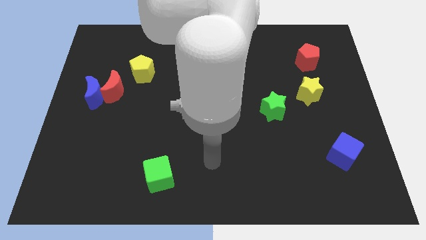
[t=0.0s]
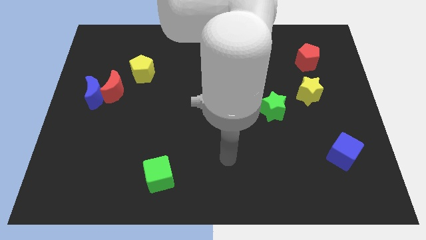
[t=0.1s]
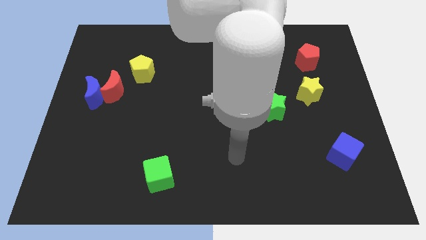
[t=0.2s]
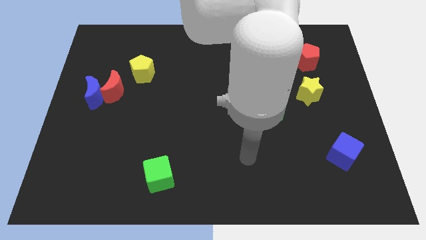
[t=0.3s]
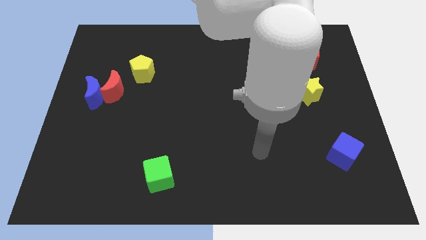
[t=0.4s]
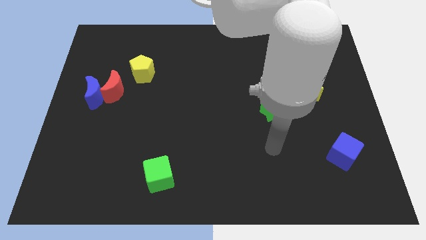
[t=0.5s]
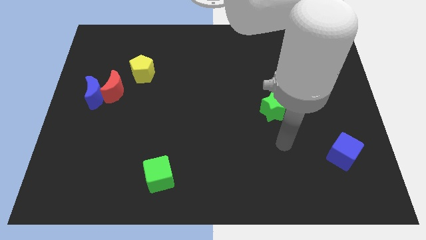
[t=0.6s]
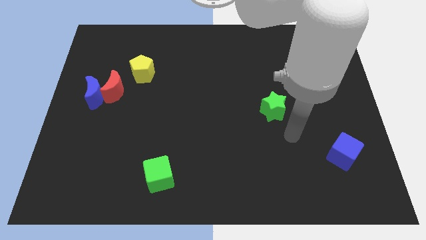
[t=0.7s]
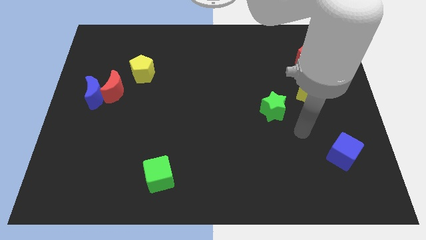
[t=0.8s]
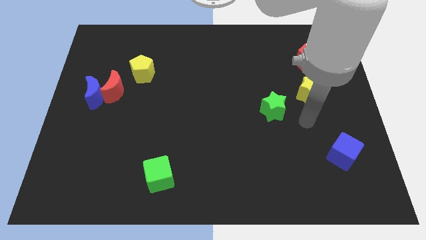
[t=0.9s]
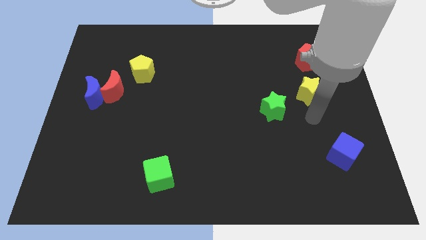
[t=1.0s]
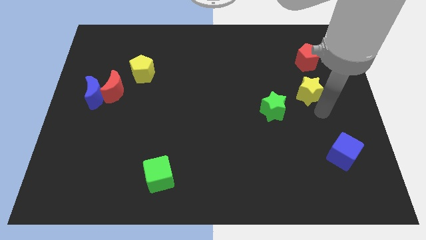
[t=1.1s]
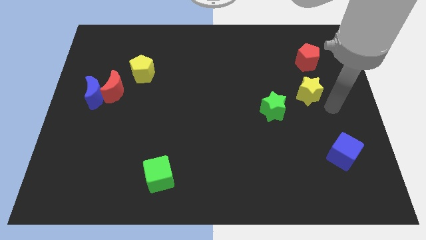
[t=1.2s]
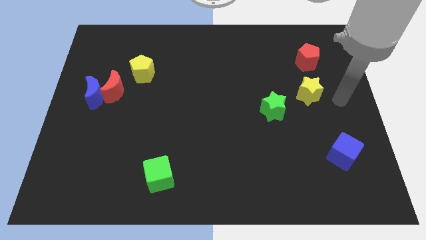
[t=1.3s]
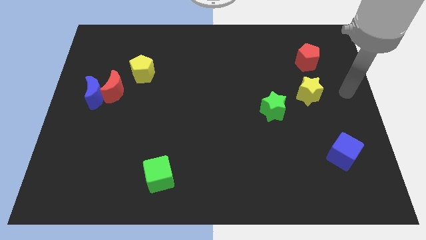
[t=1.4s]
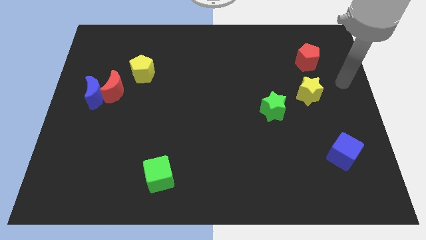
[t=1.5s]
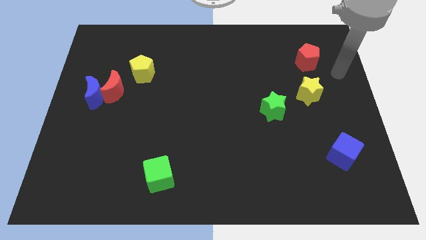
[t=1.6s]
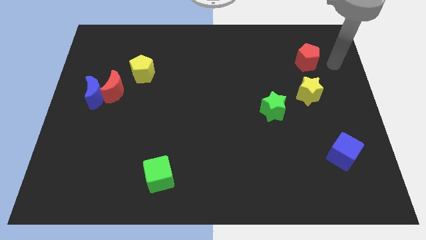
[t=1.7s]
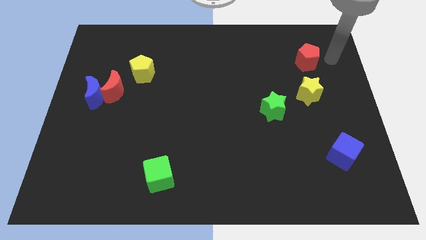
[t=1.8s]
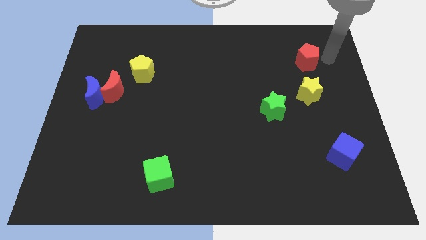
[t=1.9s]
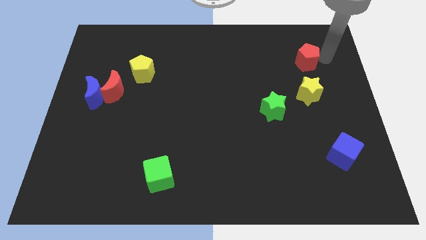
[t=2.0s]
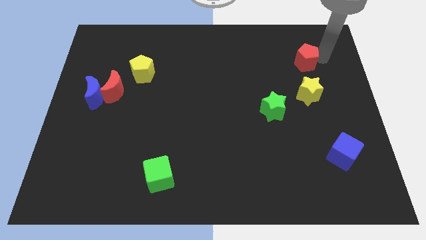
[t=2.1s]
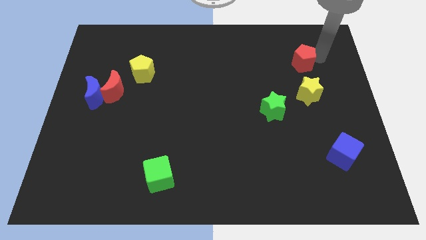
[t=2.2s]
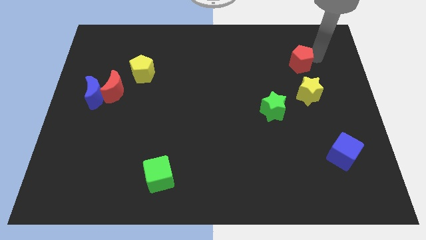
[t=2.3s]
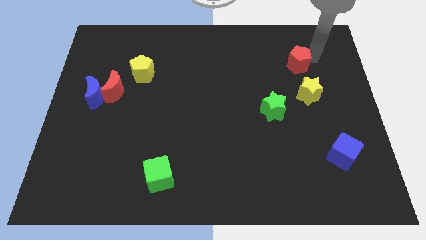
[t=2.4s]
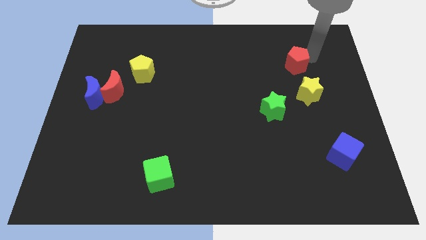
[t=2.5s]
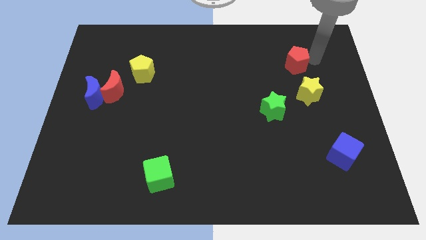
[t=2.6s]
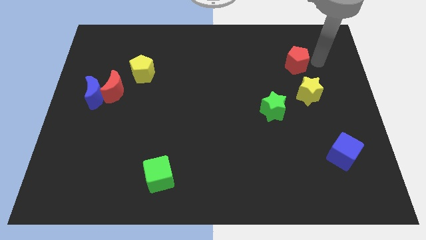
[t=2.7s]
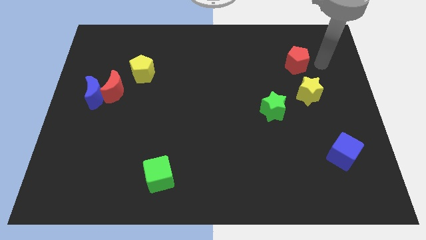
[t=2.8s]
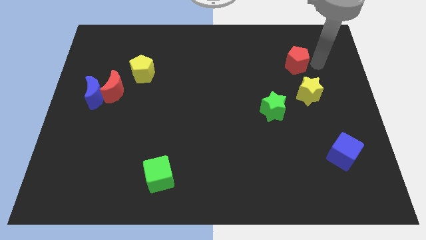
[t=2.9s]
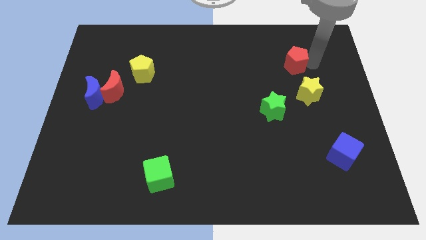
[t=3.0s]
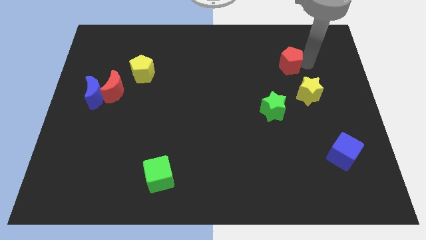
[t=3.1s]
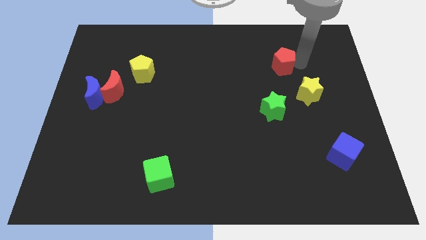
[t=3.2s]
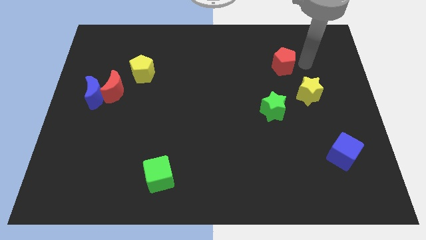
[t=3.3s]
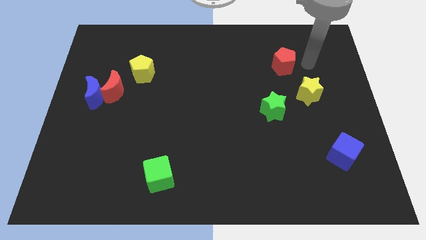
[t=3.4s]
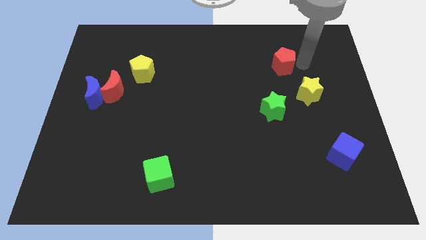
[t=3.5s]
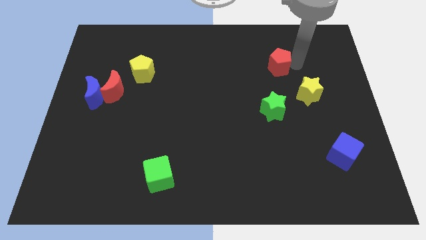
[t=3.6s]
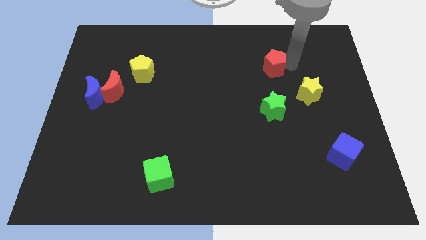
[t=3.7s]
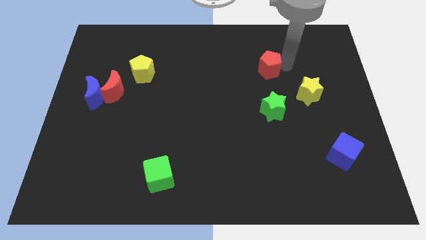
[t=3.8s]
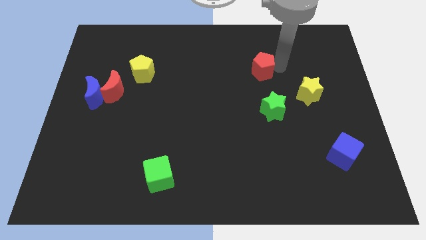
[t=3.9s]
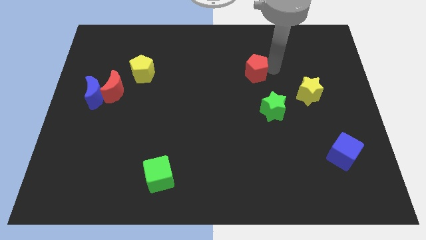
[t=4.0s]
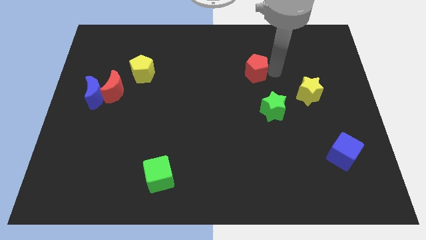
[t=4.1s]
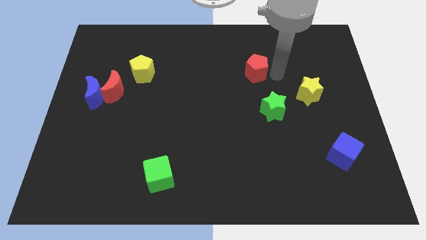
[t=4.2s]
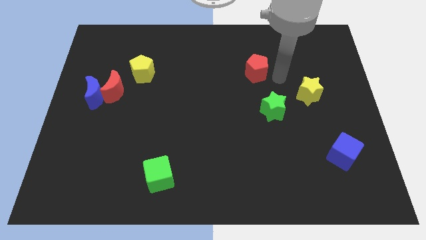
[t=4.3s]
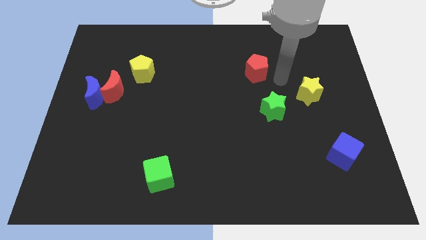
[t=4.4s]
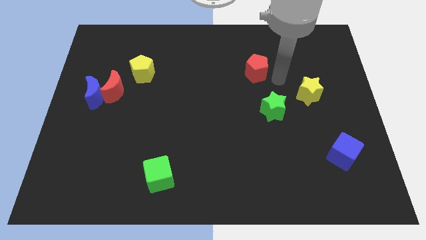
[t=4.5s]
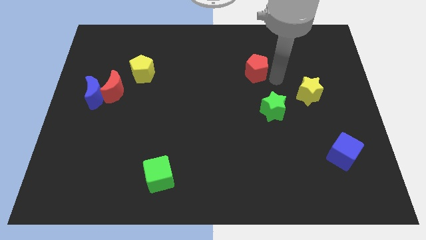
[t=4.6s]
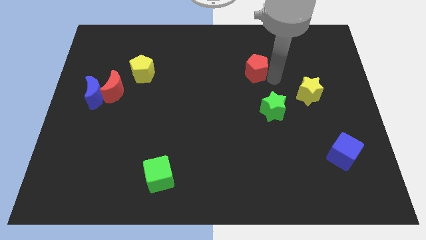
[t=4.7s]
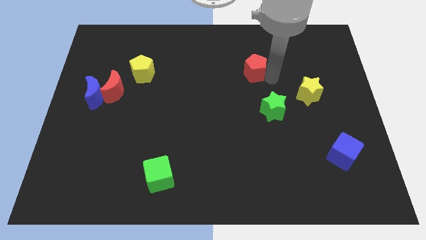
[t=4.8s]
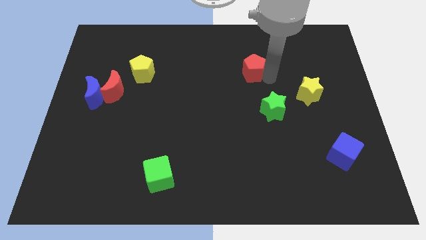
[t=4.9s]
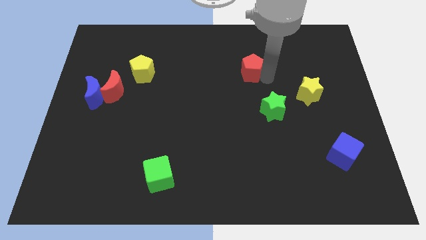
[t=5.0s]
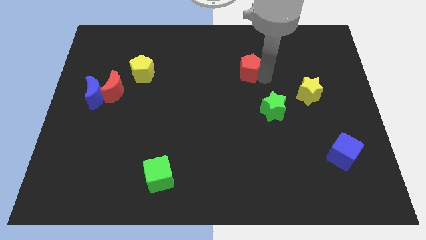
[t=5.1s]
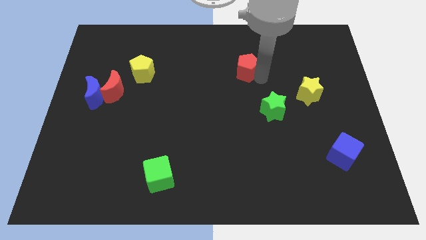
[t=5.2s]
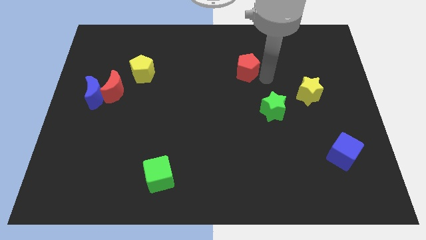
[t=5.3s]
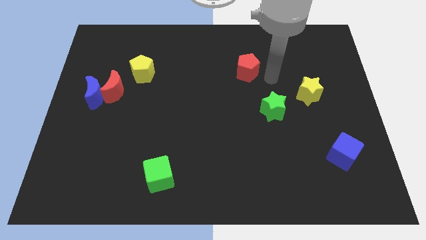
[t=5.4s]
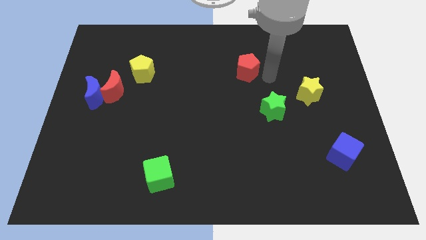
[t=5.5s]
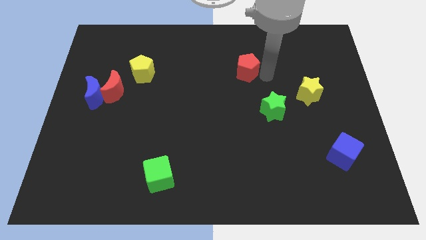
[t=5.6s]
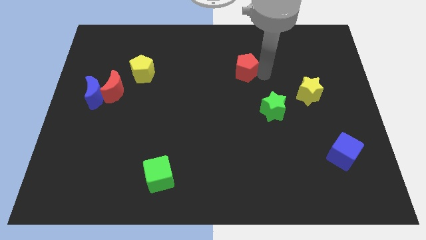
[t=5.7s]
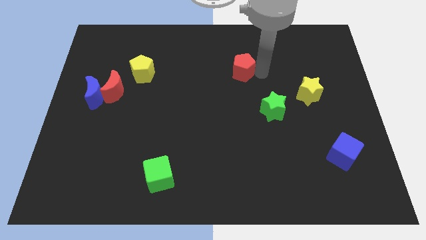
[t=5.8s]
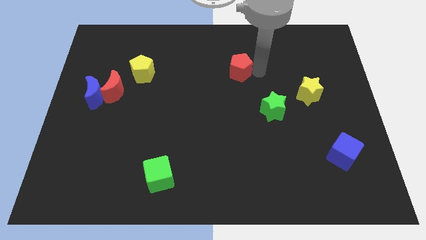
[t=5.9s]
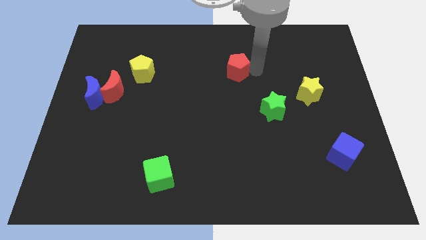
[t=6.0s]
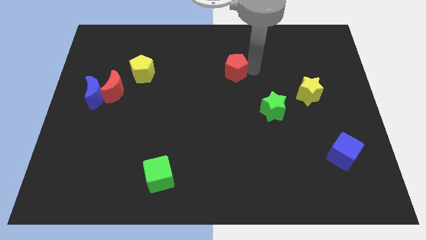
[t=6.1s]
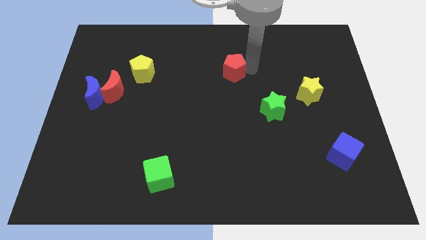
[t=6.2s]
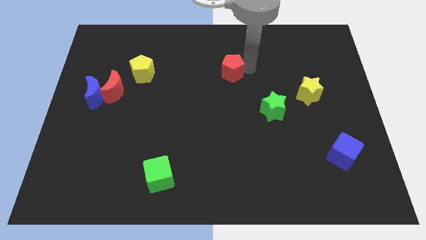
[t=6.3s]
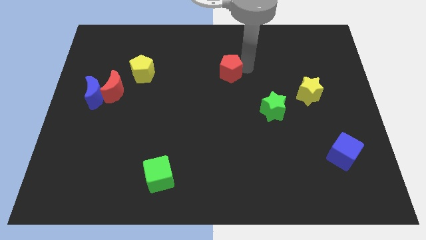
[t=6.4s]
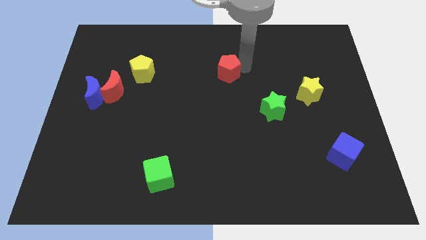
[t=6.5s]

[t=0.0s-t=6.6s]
move the red pentagon to the left

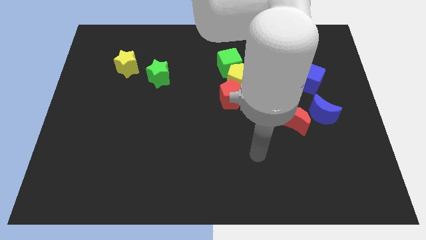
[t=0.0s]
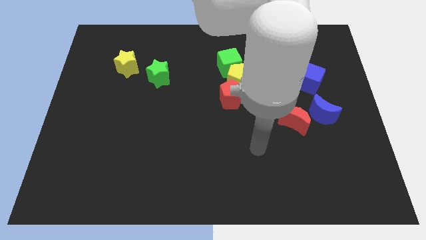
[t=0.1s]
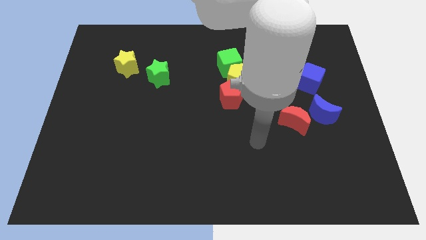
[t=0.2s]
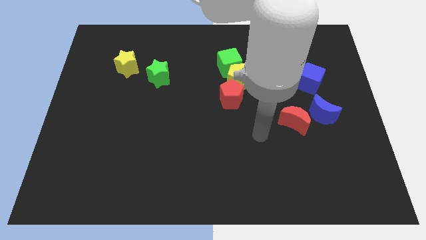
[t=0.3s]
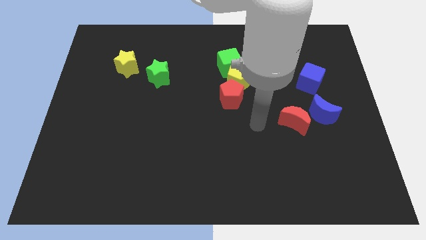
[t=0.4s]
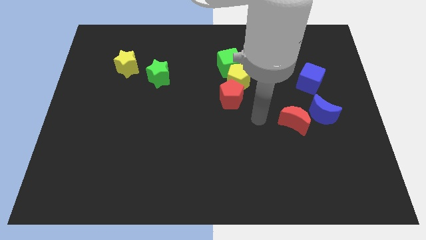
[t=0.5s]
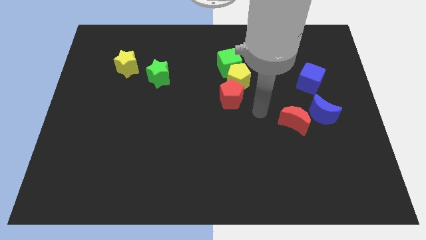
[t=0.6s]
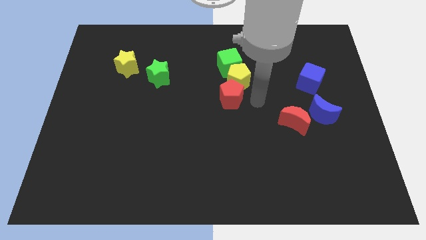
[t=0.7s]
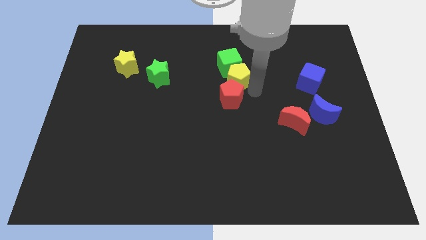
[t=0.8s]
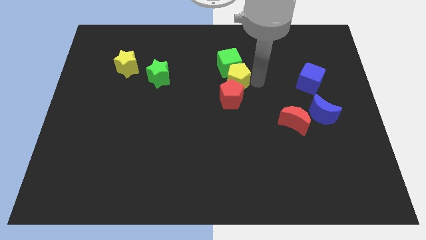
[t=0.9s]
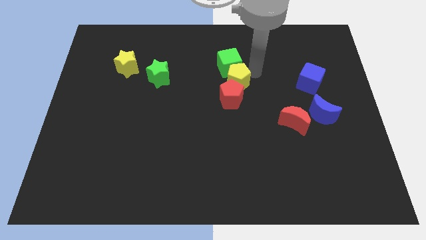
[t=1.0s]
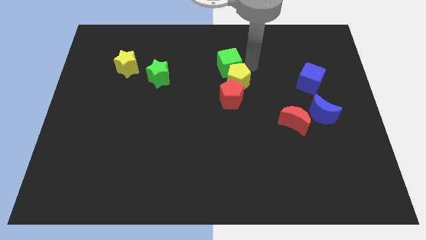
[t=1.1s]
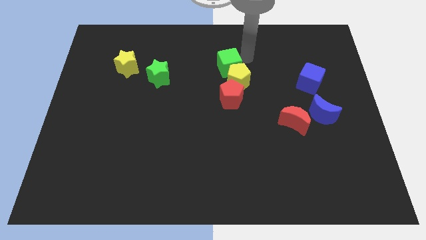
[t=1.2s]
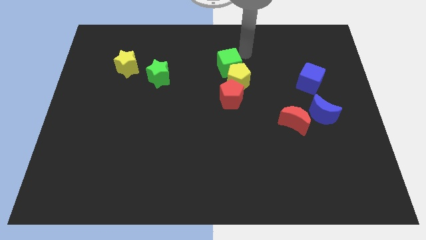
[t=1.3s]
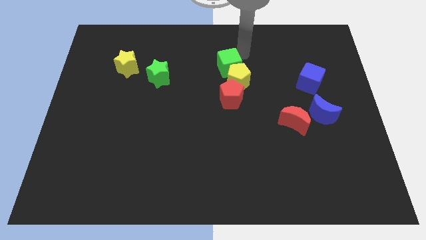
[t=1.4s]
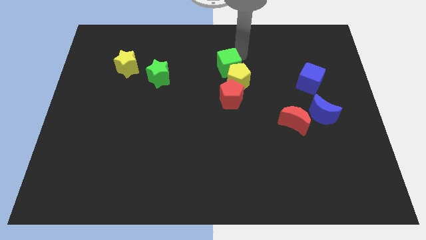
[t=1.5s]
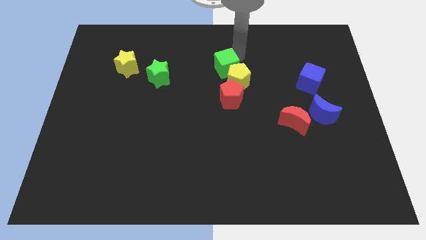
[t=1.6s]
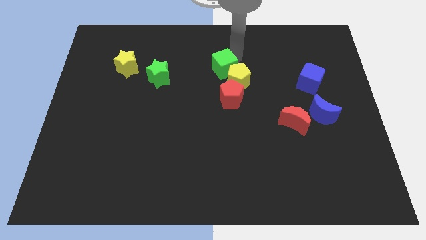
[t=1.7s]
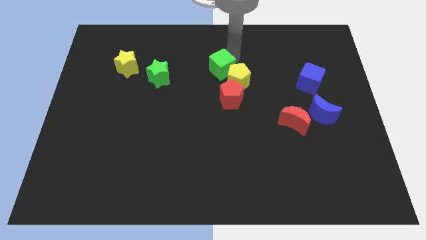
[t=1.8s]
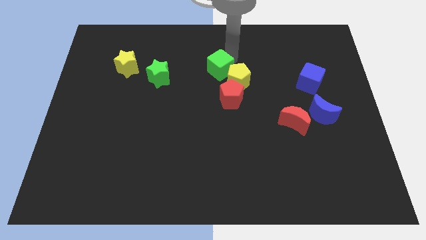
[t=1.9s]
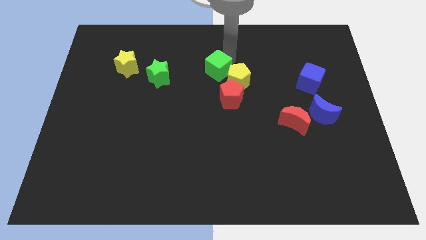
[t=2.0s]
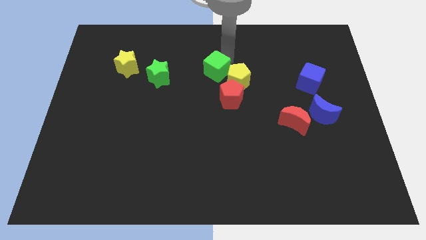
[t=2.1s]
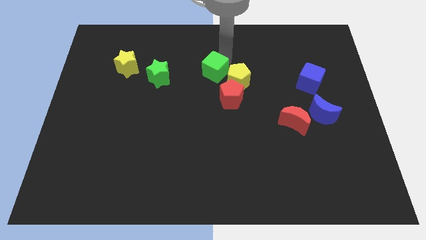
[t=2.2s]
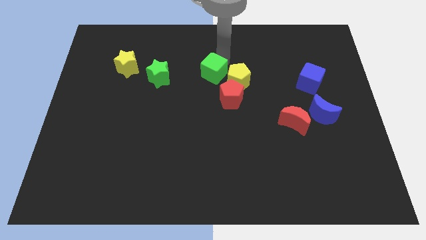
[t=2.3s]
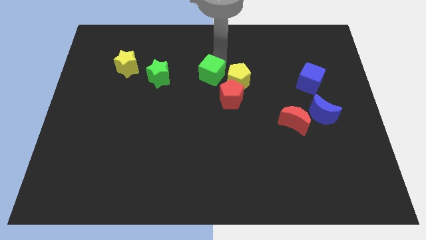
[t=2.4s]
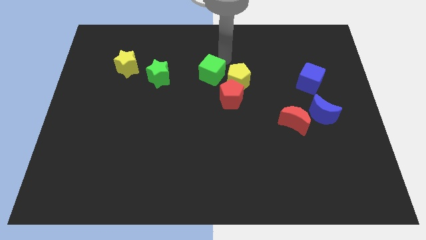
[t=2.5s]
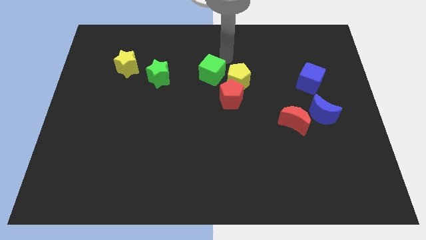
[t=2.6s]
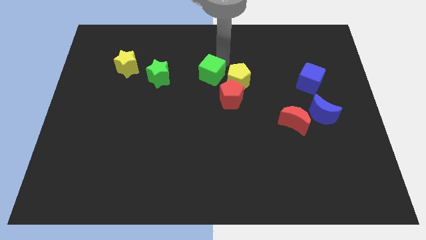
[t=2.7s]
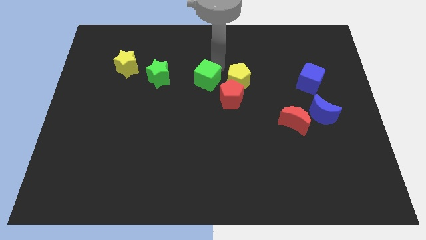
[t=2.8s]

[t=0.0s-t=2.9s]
move the green cube diagonally down and to the left a bit
